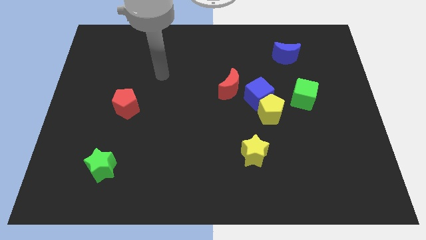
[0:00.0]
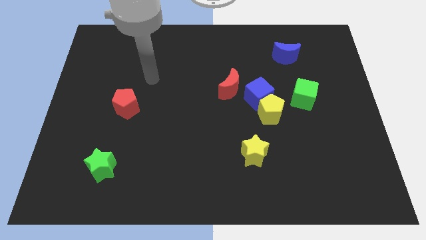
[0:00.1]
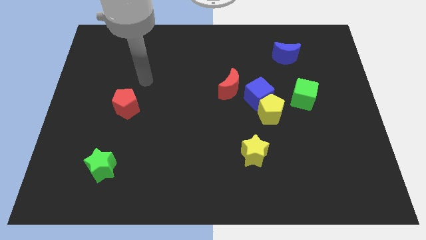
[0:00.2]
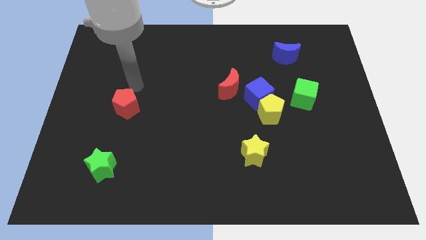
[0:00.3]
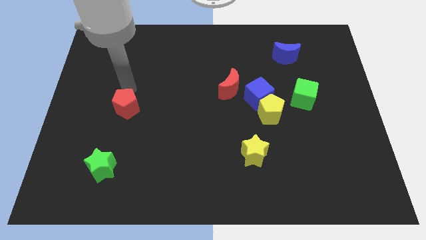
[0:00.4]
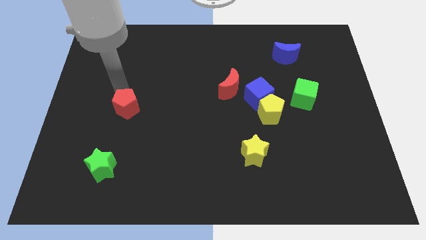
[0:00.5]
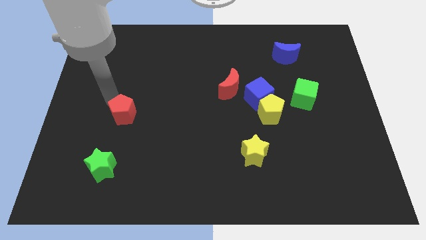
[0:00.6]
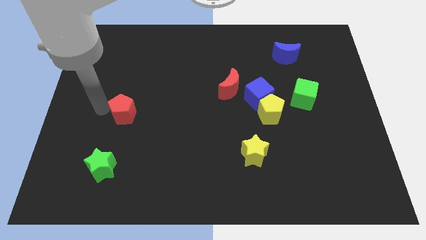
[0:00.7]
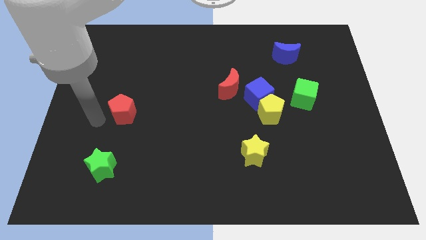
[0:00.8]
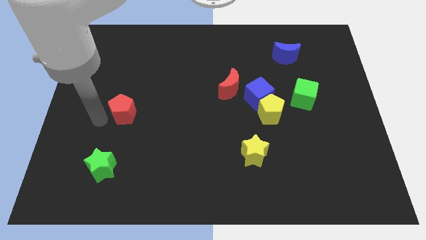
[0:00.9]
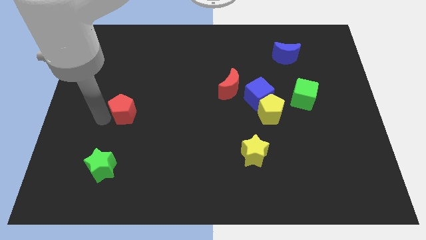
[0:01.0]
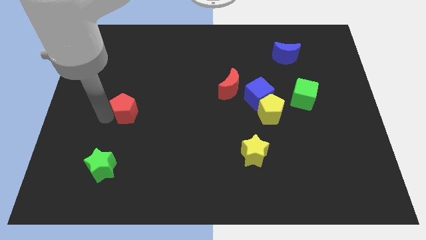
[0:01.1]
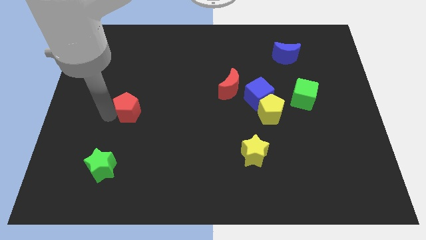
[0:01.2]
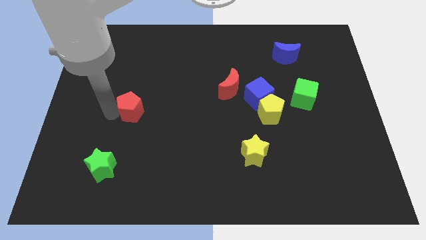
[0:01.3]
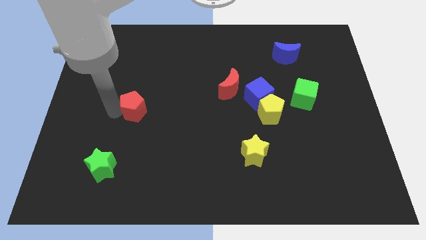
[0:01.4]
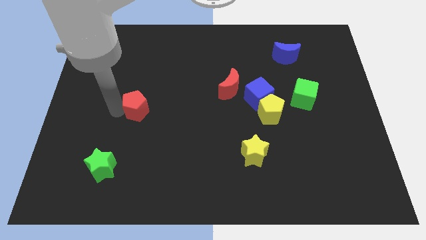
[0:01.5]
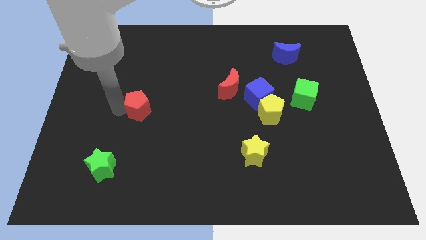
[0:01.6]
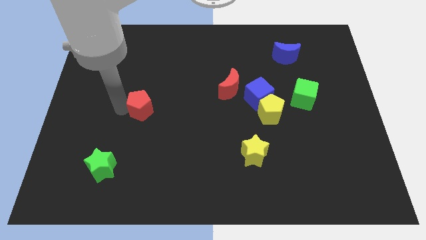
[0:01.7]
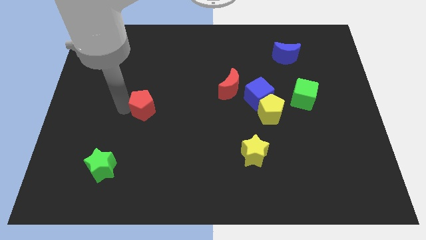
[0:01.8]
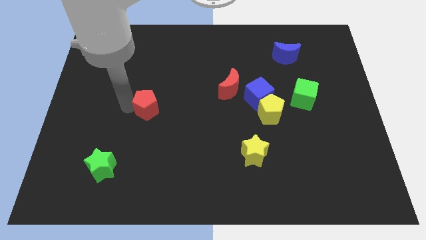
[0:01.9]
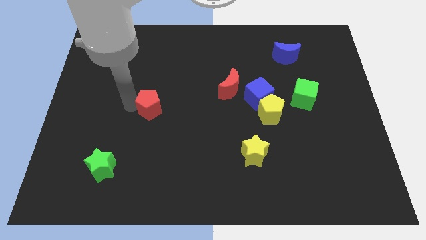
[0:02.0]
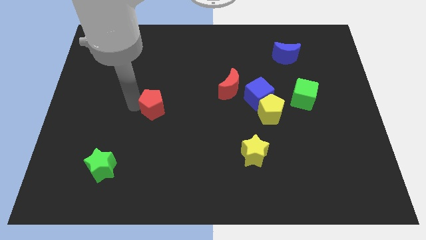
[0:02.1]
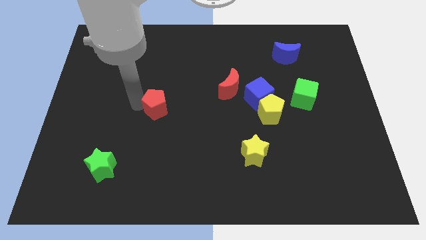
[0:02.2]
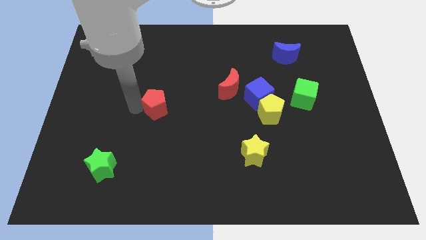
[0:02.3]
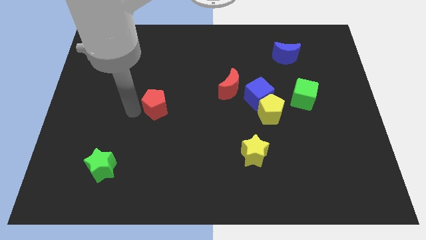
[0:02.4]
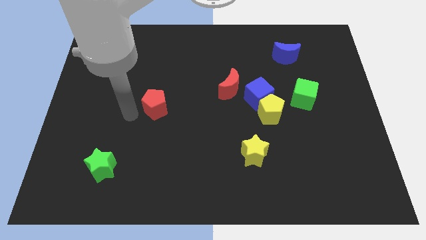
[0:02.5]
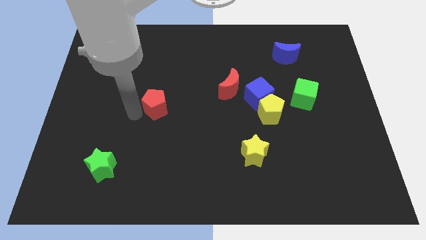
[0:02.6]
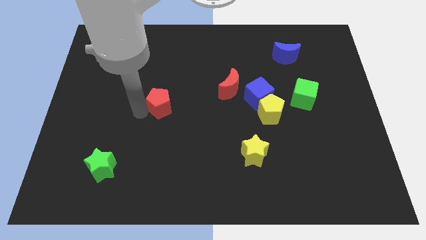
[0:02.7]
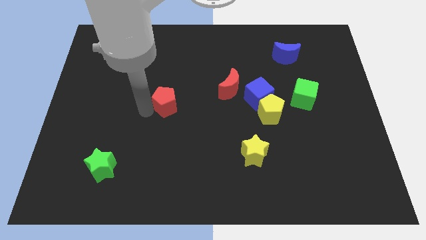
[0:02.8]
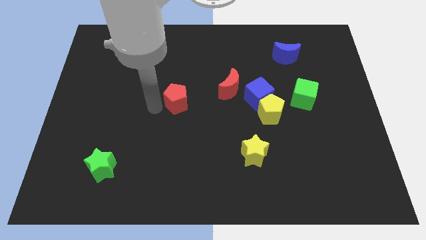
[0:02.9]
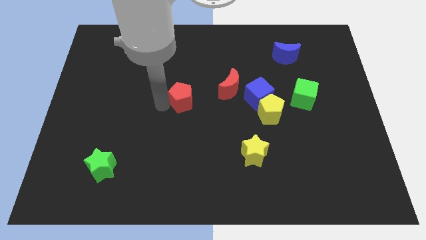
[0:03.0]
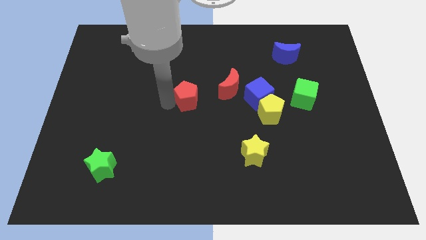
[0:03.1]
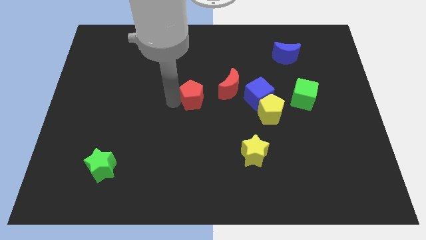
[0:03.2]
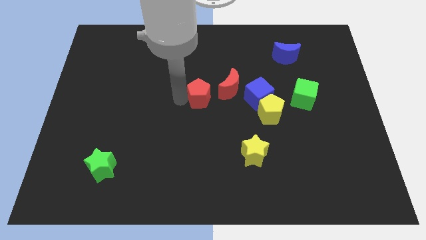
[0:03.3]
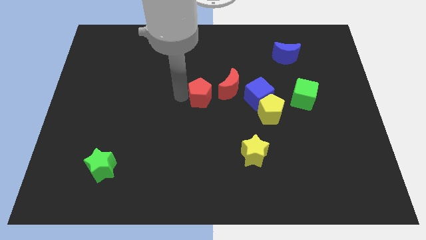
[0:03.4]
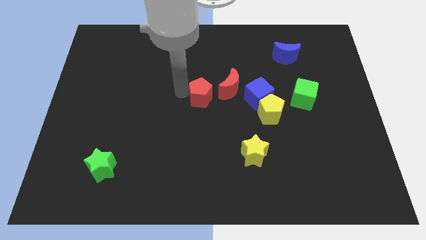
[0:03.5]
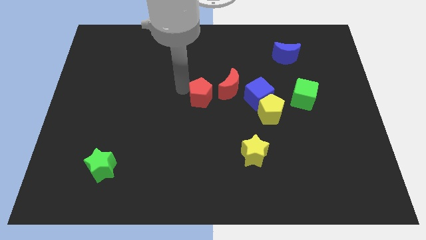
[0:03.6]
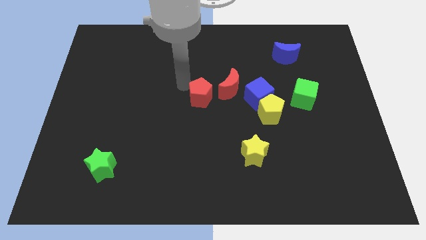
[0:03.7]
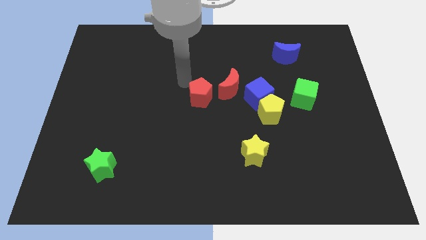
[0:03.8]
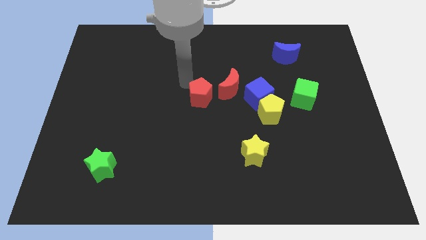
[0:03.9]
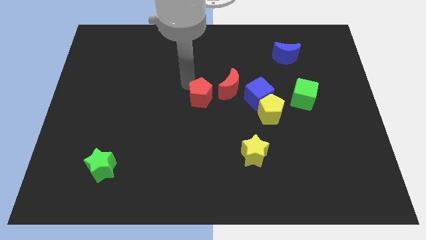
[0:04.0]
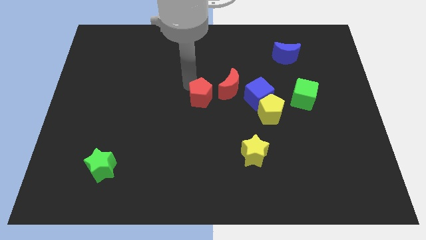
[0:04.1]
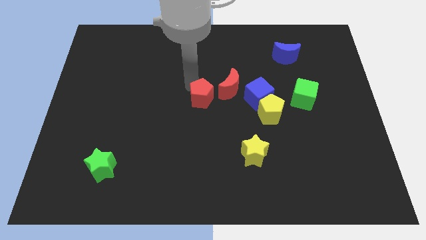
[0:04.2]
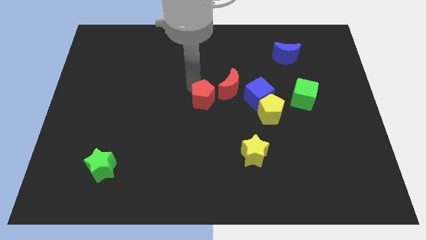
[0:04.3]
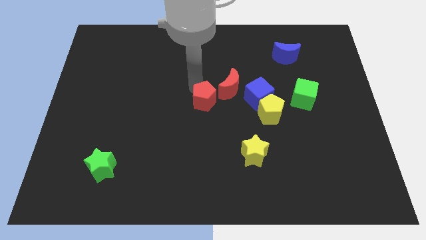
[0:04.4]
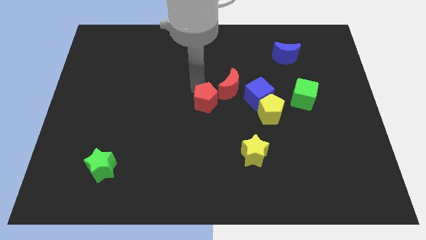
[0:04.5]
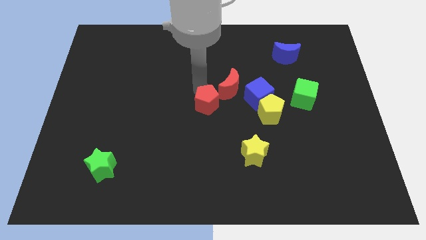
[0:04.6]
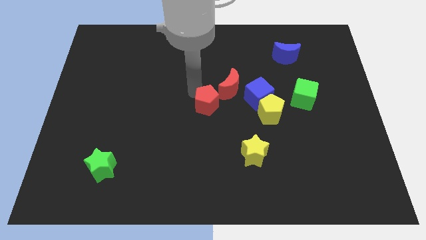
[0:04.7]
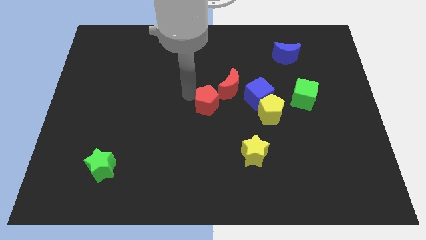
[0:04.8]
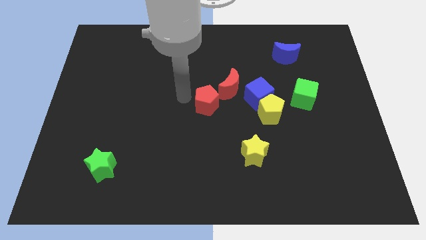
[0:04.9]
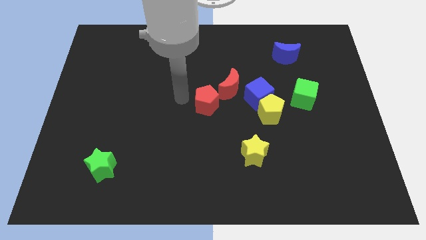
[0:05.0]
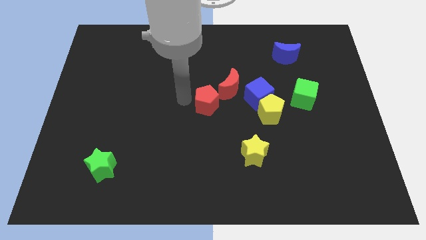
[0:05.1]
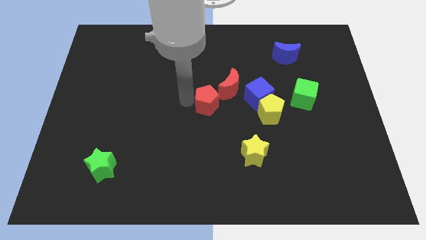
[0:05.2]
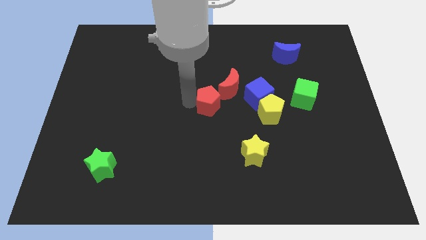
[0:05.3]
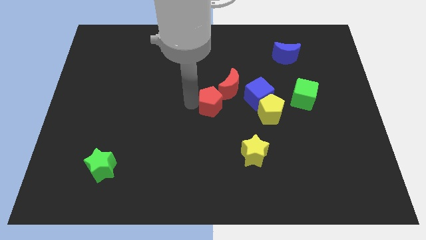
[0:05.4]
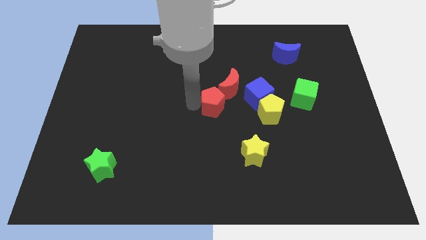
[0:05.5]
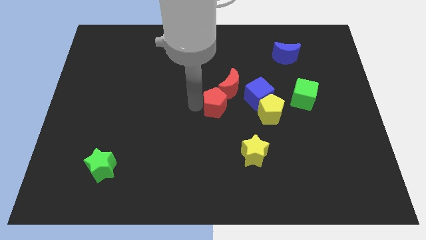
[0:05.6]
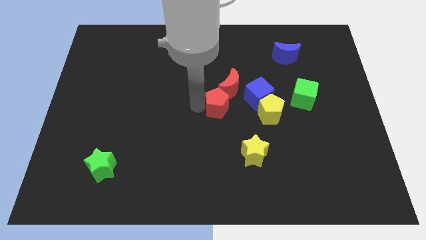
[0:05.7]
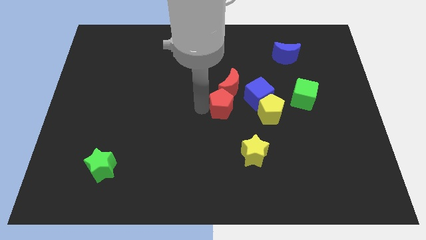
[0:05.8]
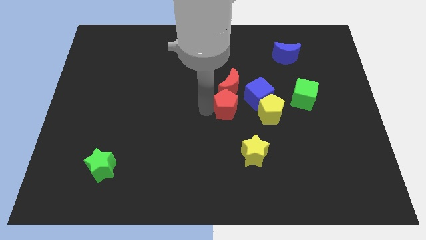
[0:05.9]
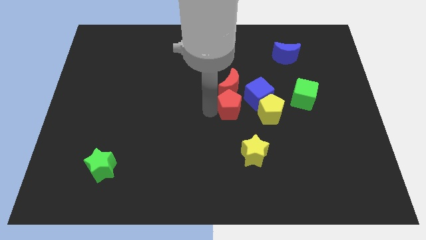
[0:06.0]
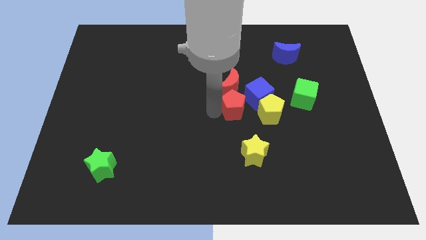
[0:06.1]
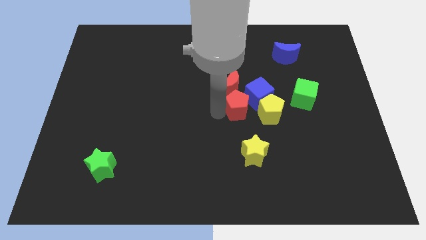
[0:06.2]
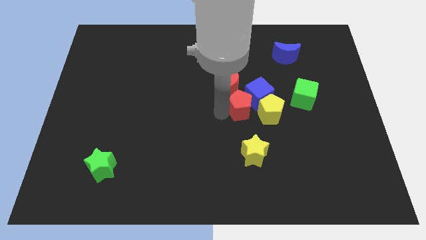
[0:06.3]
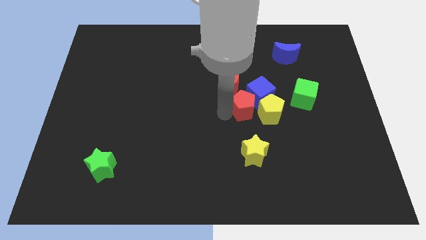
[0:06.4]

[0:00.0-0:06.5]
slide the red pentagon close to the yellow pentagon
